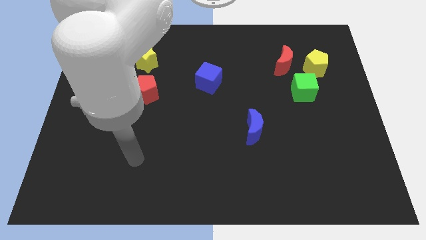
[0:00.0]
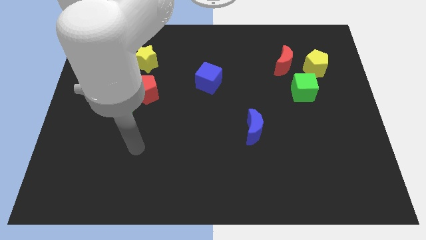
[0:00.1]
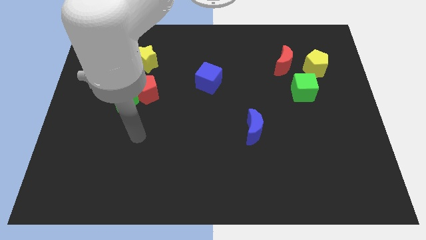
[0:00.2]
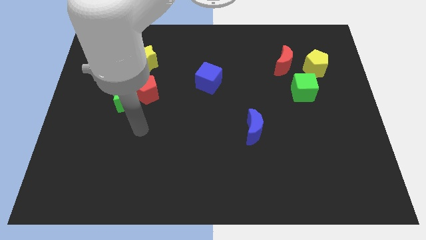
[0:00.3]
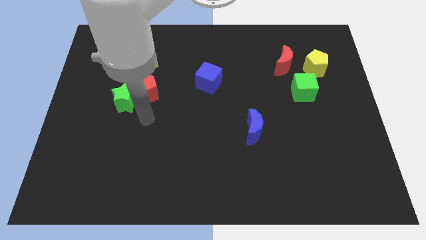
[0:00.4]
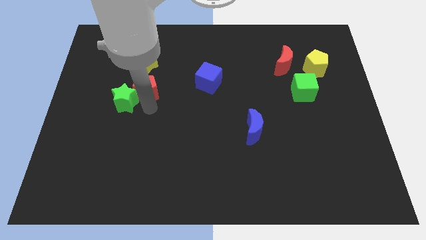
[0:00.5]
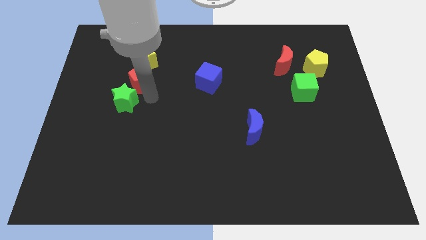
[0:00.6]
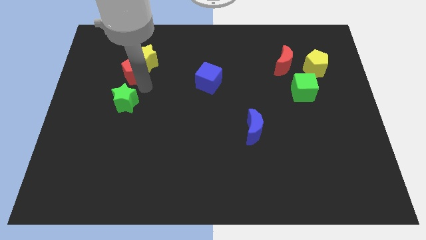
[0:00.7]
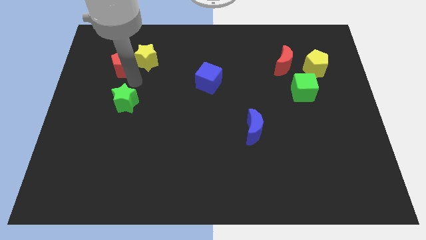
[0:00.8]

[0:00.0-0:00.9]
separate the green star from the red pentagon

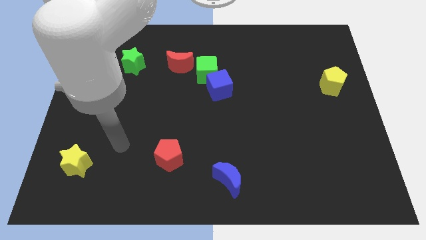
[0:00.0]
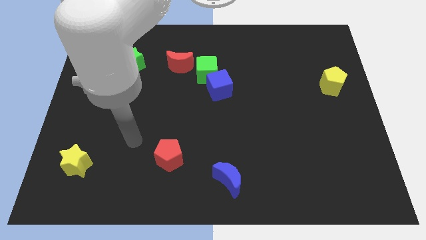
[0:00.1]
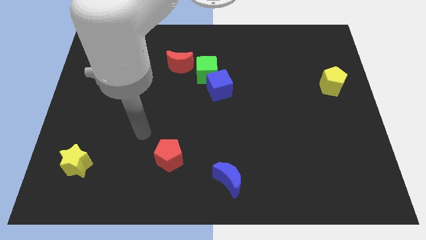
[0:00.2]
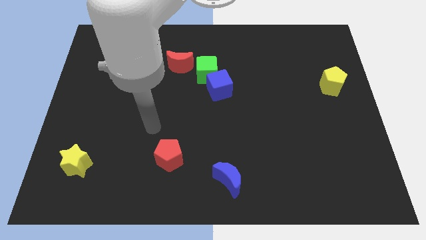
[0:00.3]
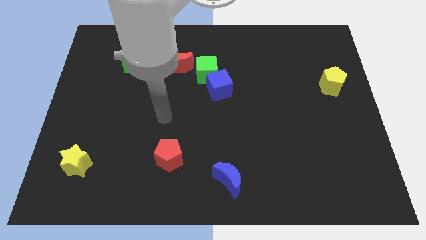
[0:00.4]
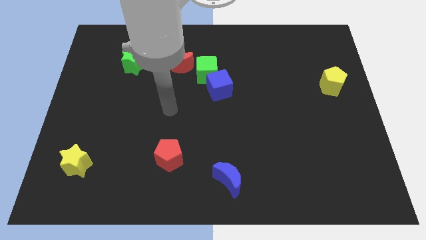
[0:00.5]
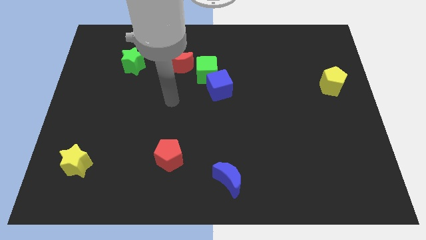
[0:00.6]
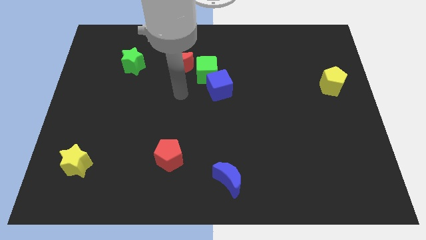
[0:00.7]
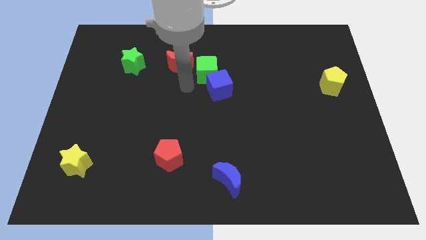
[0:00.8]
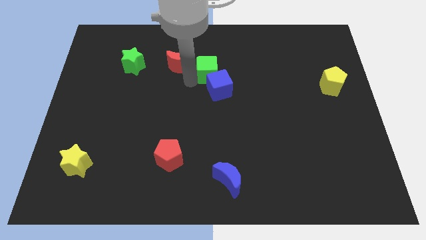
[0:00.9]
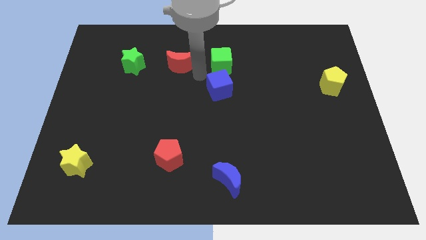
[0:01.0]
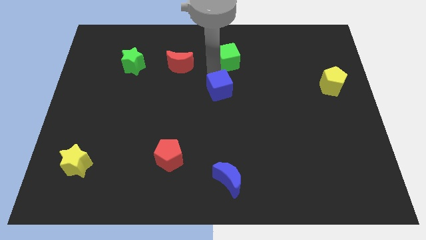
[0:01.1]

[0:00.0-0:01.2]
move the blue cube away from the green cube

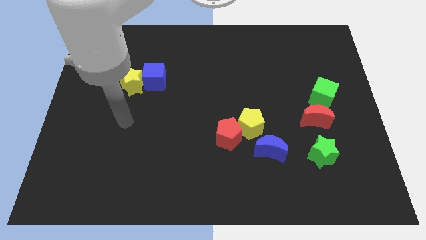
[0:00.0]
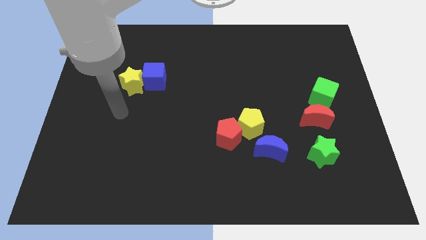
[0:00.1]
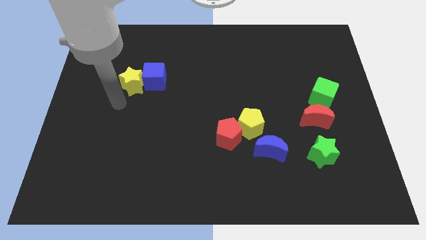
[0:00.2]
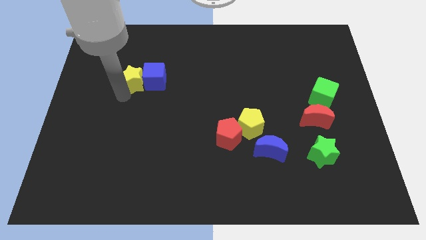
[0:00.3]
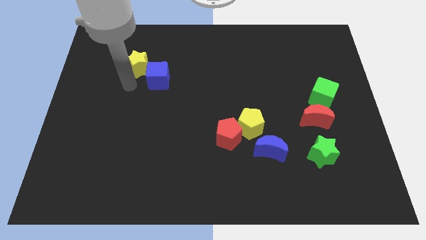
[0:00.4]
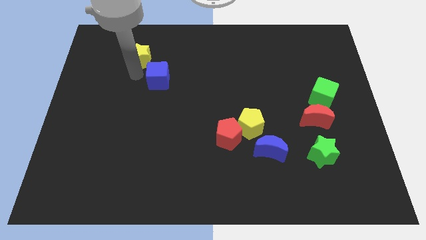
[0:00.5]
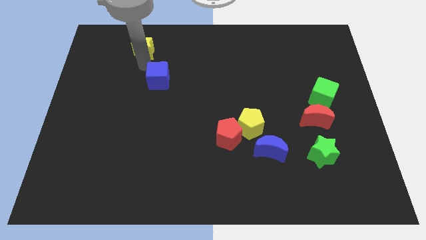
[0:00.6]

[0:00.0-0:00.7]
separate the blue cube from the yellow star

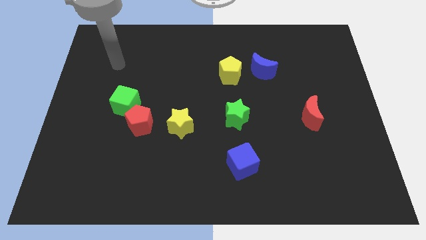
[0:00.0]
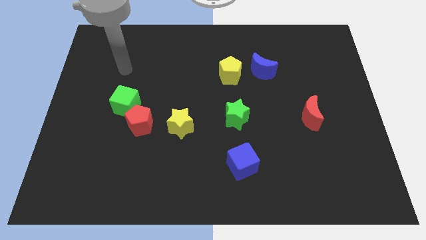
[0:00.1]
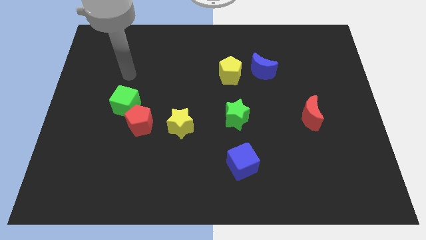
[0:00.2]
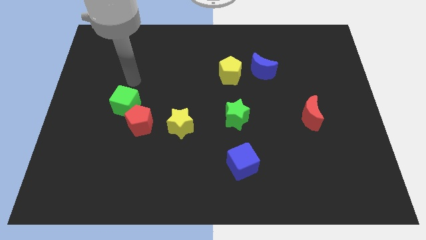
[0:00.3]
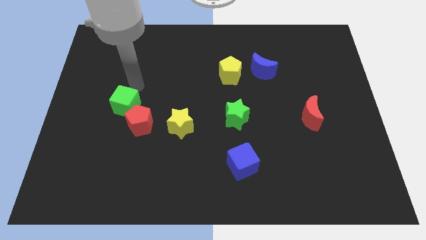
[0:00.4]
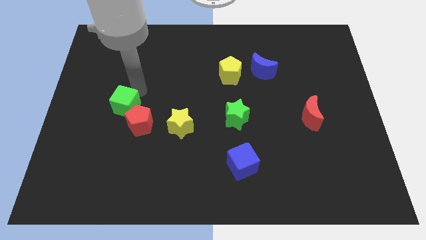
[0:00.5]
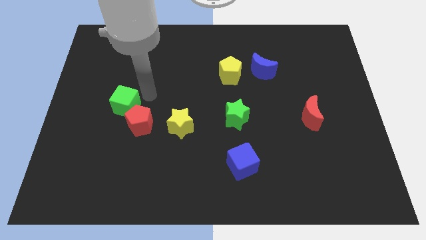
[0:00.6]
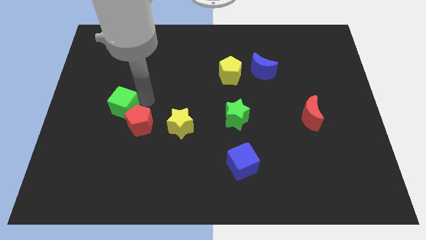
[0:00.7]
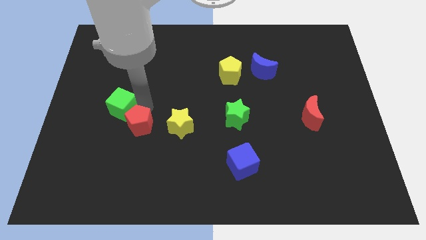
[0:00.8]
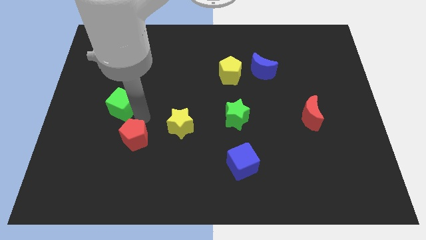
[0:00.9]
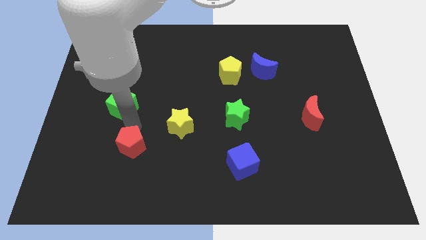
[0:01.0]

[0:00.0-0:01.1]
separate the green cube from the red pentagon

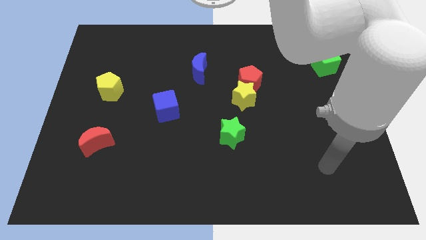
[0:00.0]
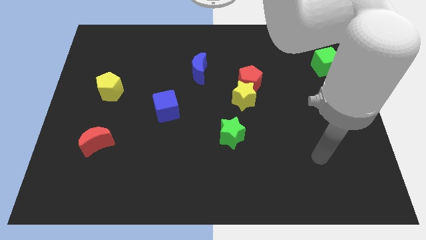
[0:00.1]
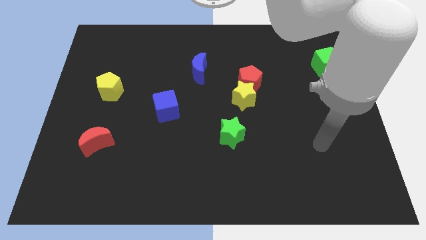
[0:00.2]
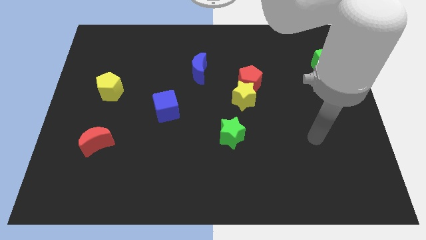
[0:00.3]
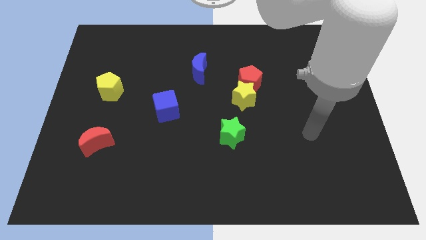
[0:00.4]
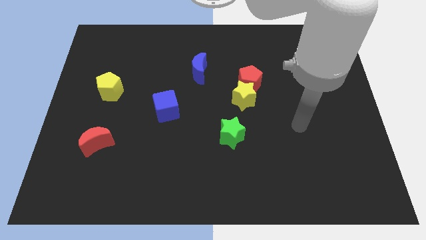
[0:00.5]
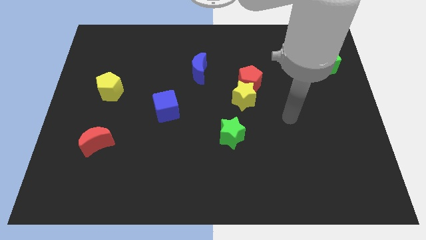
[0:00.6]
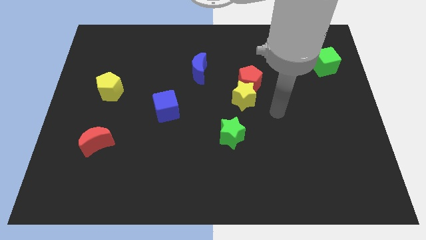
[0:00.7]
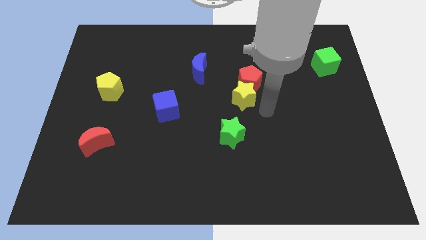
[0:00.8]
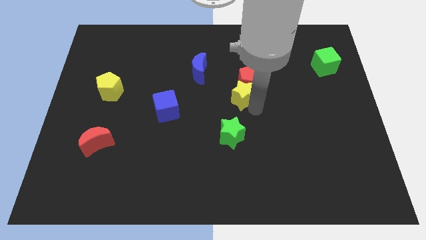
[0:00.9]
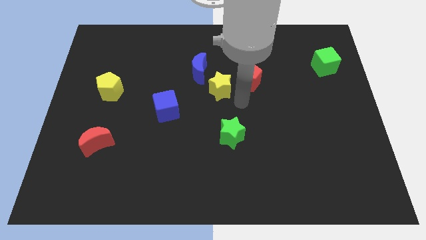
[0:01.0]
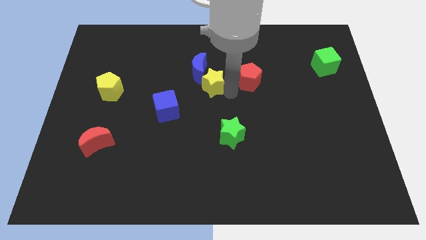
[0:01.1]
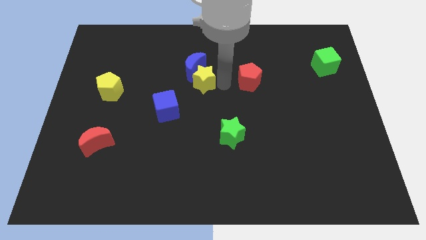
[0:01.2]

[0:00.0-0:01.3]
separate the red pentagon from the yellow star

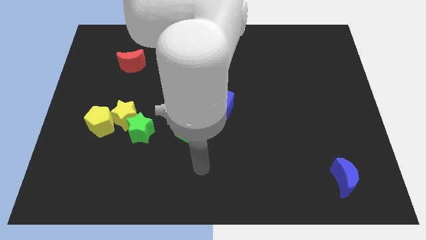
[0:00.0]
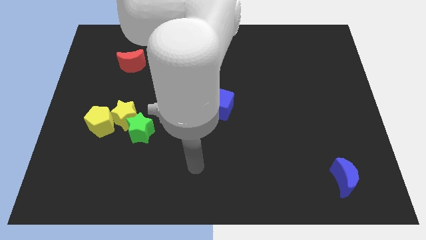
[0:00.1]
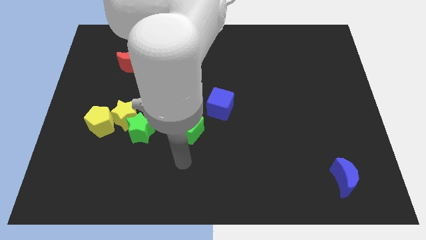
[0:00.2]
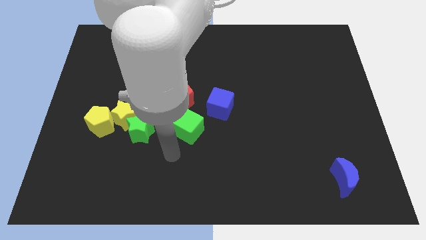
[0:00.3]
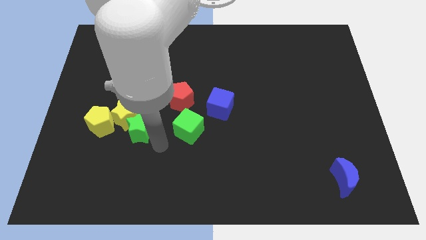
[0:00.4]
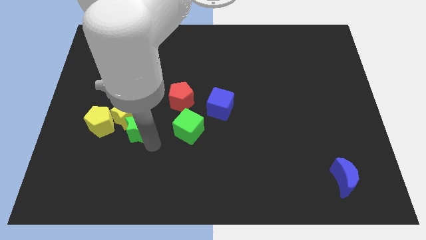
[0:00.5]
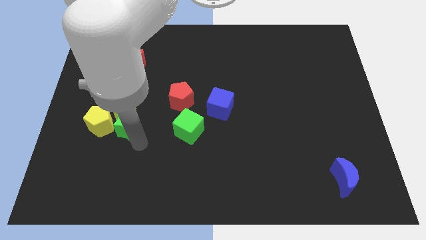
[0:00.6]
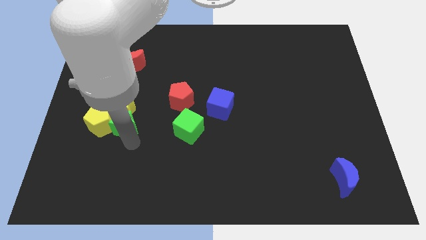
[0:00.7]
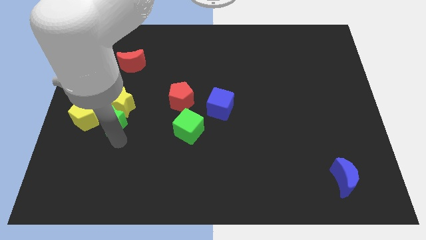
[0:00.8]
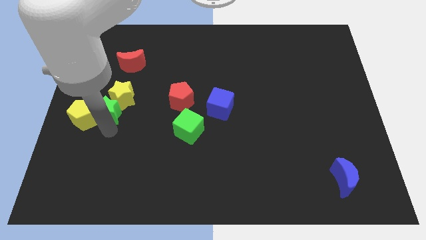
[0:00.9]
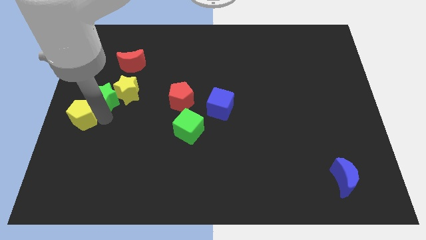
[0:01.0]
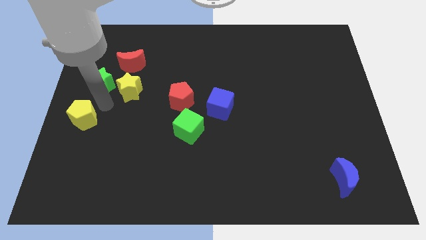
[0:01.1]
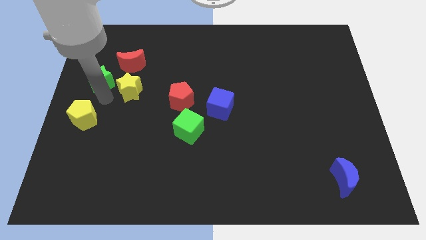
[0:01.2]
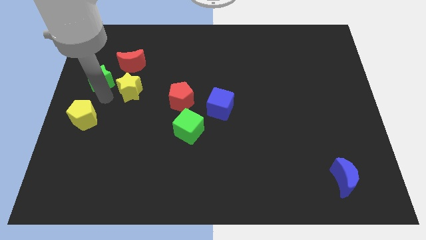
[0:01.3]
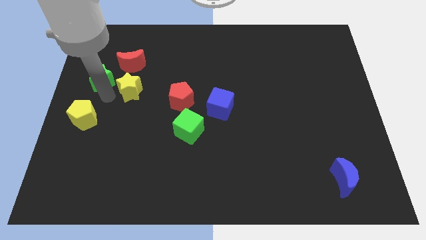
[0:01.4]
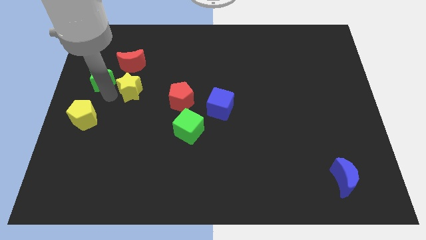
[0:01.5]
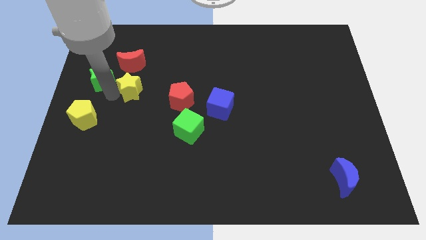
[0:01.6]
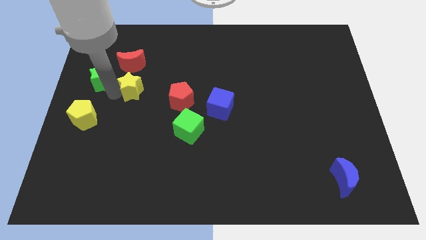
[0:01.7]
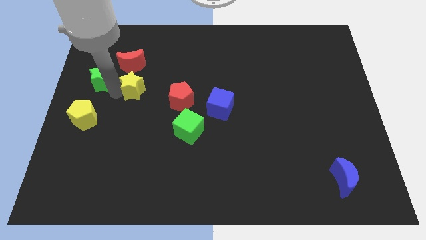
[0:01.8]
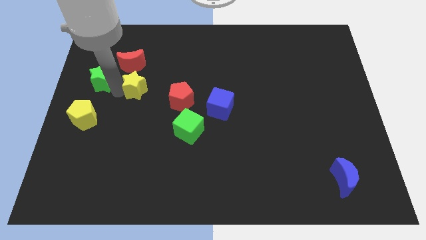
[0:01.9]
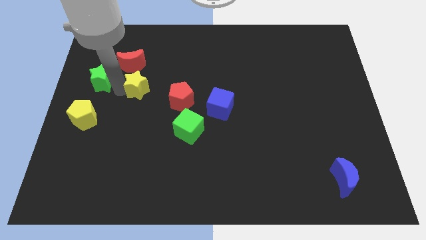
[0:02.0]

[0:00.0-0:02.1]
pull the yellow star apart from the green star and yellow pentagon

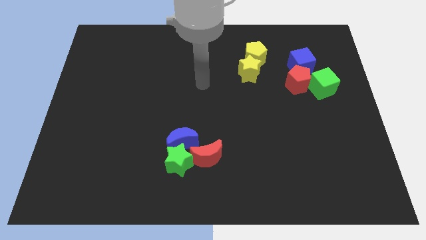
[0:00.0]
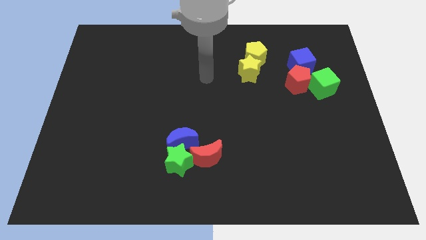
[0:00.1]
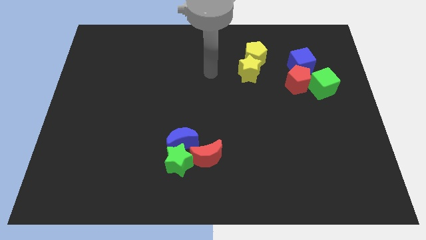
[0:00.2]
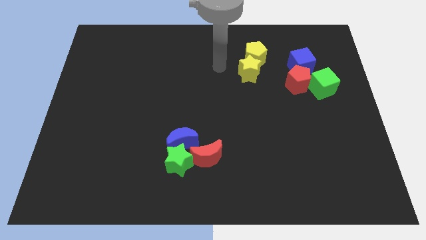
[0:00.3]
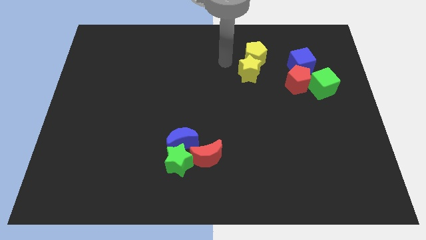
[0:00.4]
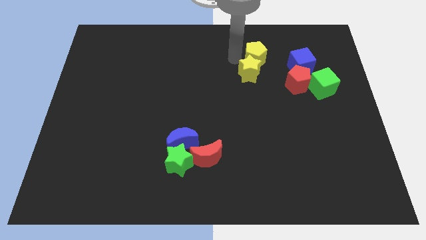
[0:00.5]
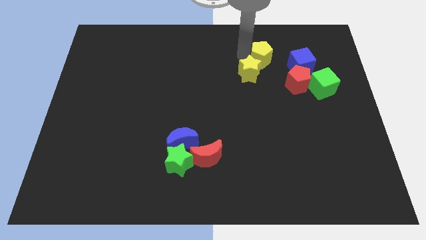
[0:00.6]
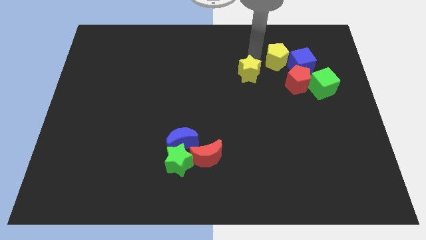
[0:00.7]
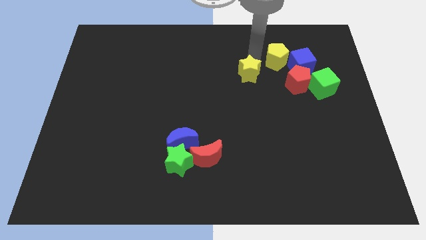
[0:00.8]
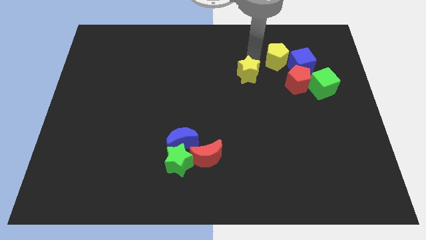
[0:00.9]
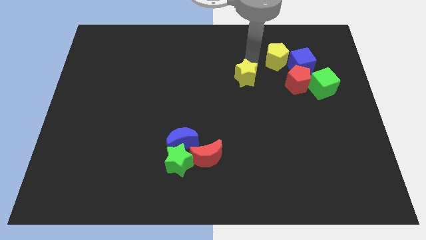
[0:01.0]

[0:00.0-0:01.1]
move the yellow star away from the yellow pentagon

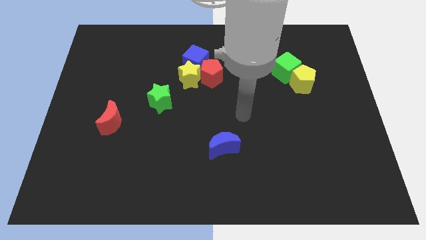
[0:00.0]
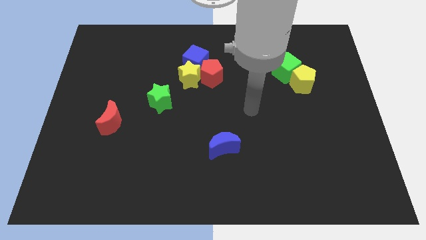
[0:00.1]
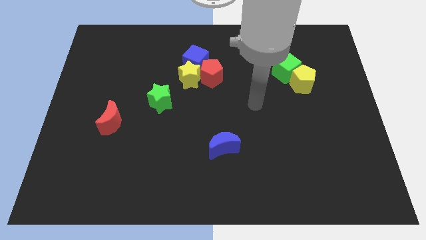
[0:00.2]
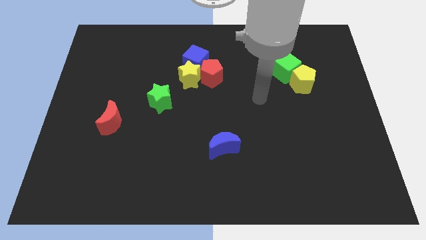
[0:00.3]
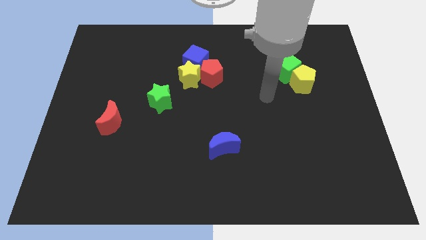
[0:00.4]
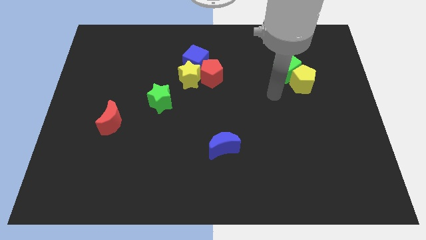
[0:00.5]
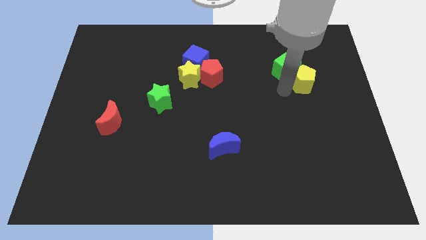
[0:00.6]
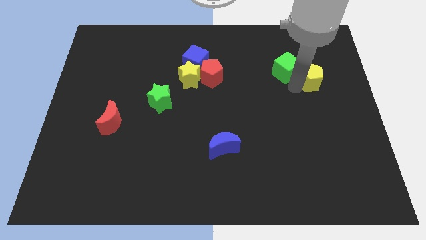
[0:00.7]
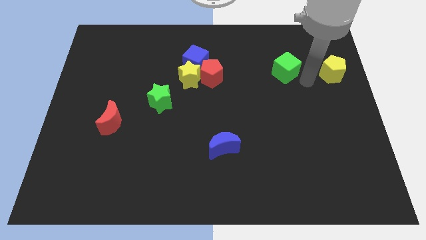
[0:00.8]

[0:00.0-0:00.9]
pull the green cube apart from the yellow pentagon
